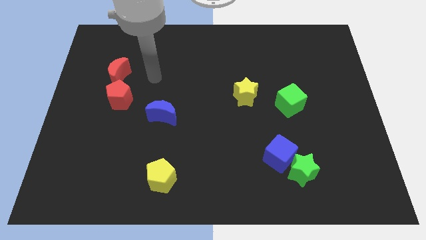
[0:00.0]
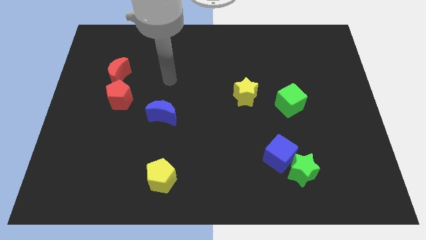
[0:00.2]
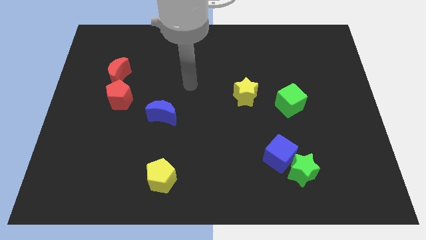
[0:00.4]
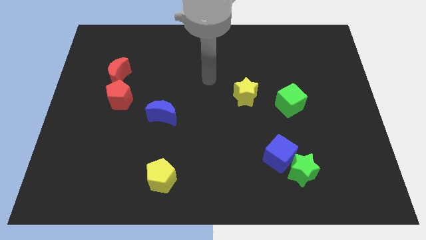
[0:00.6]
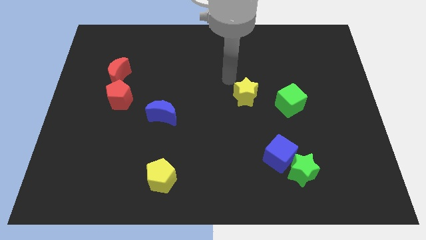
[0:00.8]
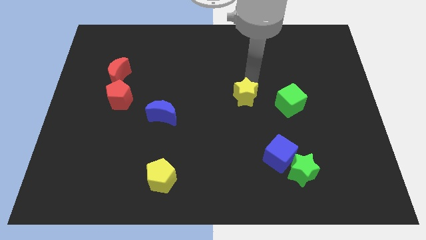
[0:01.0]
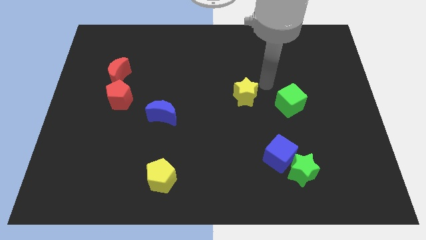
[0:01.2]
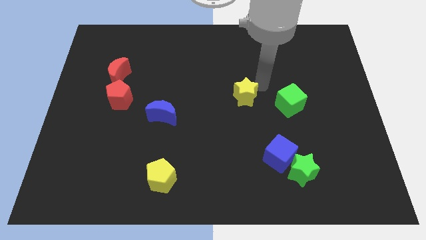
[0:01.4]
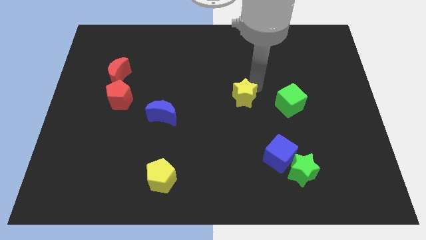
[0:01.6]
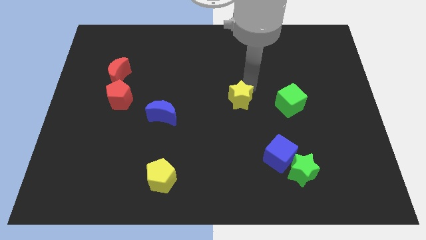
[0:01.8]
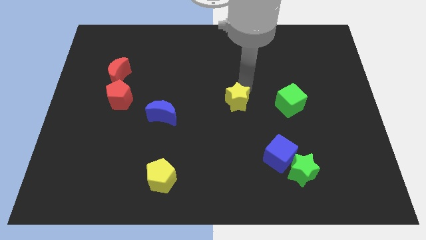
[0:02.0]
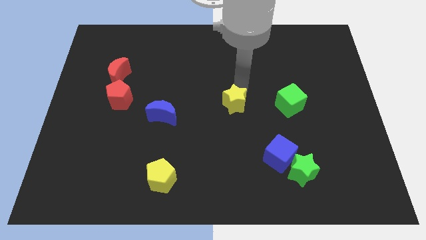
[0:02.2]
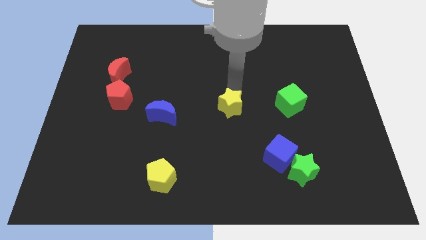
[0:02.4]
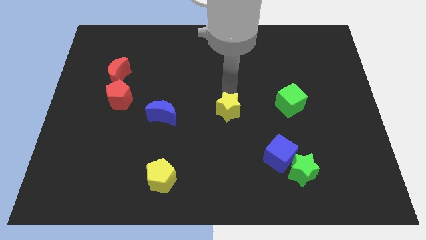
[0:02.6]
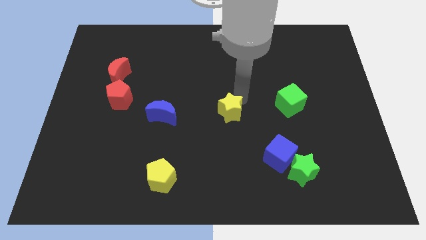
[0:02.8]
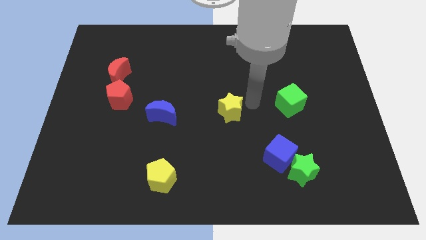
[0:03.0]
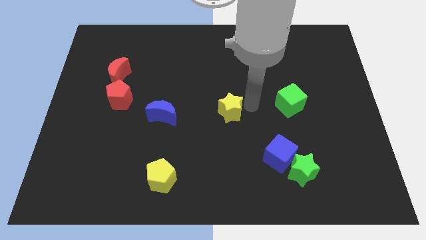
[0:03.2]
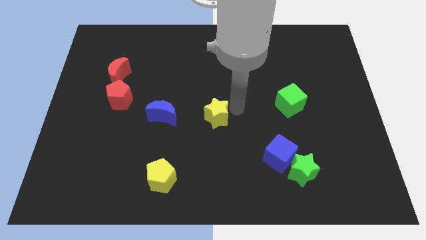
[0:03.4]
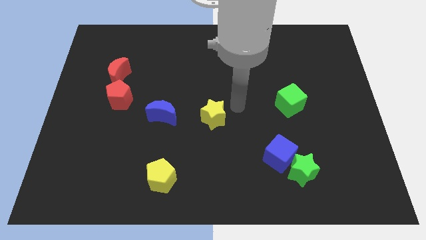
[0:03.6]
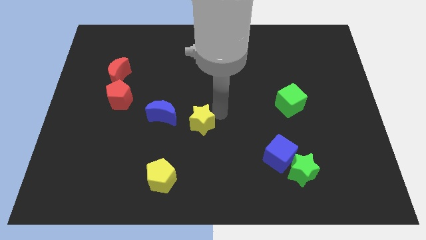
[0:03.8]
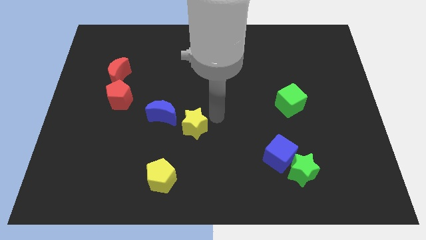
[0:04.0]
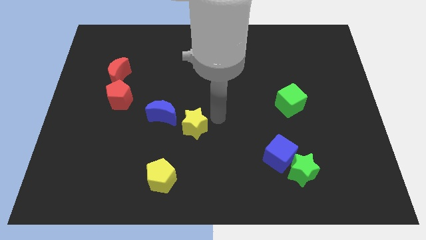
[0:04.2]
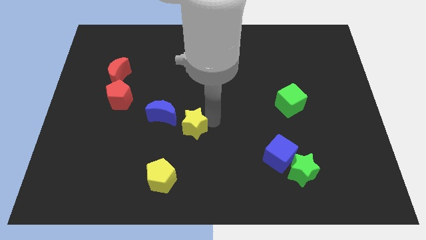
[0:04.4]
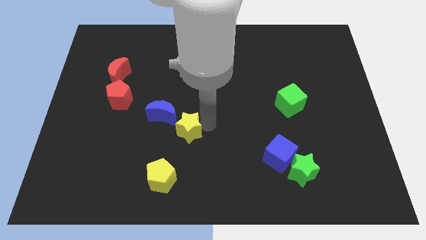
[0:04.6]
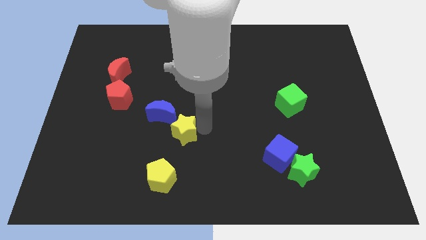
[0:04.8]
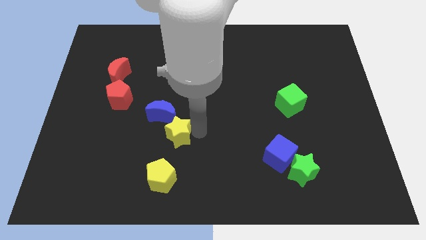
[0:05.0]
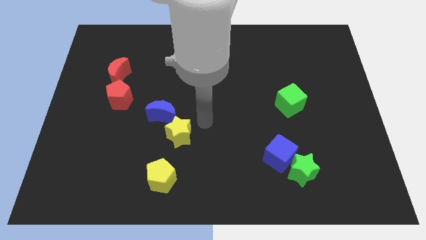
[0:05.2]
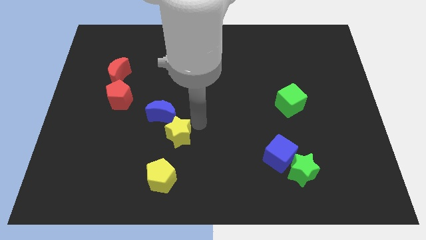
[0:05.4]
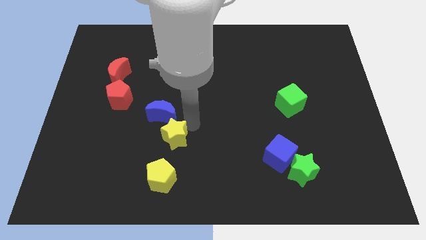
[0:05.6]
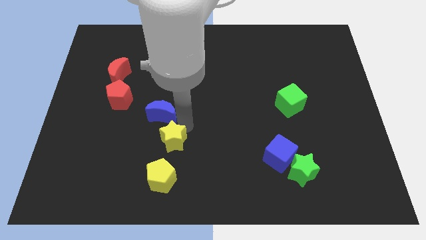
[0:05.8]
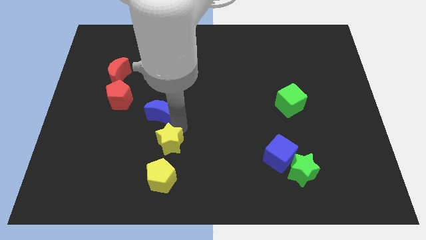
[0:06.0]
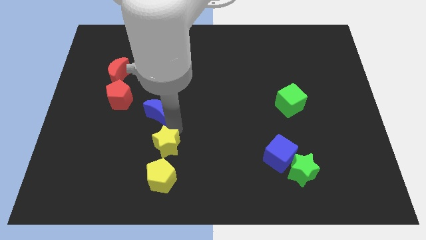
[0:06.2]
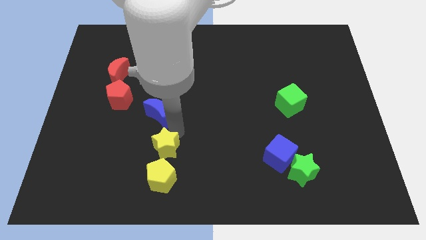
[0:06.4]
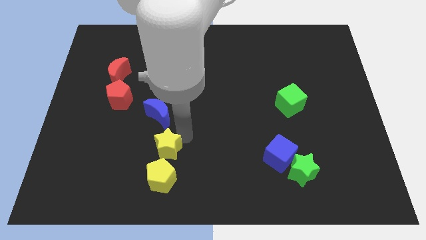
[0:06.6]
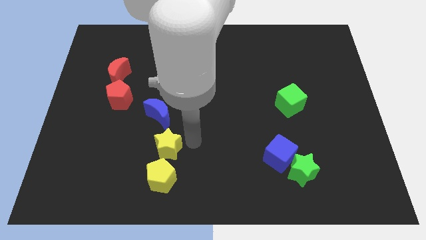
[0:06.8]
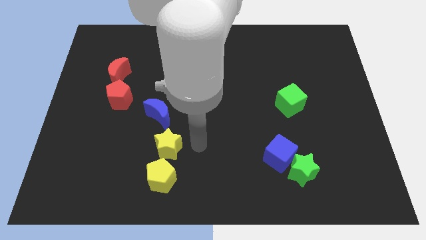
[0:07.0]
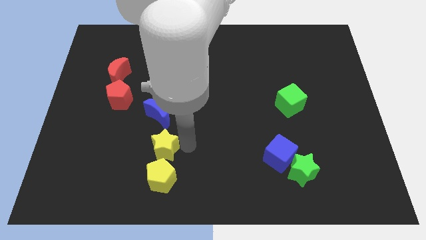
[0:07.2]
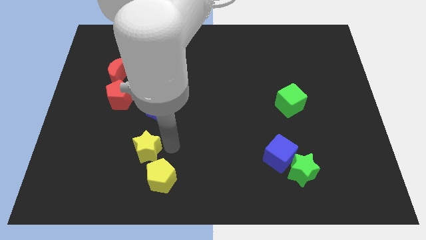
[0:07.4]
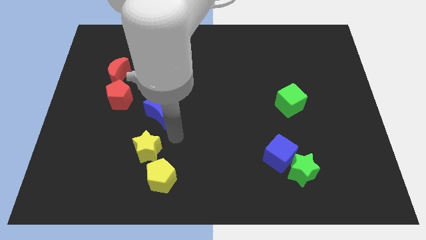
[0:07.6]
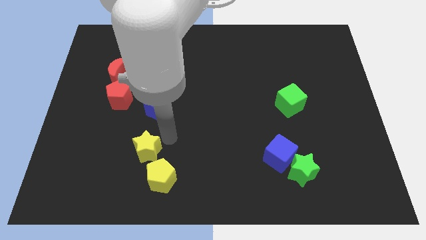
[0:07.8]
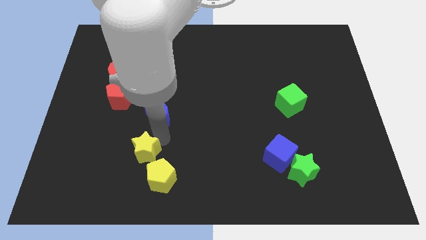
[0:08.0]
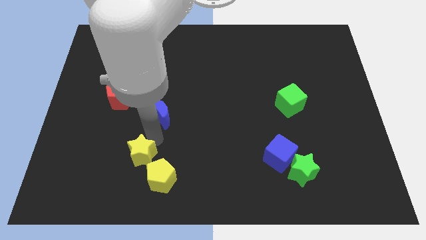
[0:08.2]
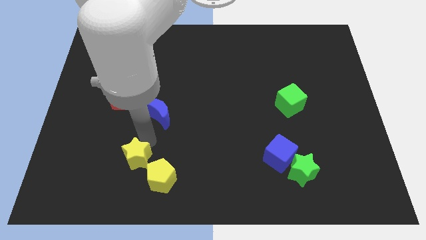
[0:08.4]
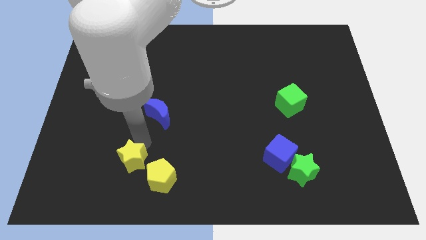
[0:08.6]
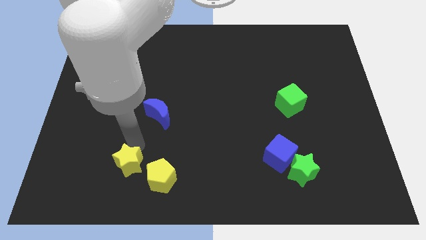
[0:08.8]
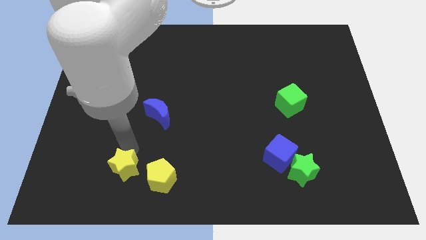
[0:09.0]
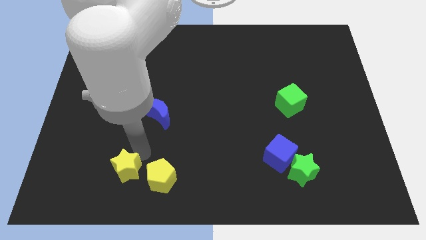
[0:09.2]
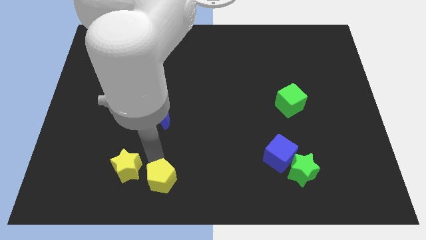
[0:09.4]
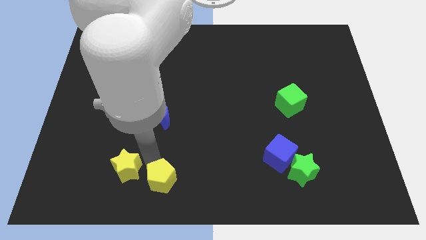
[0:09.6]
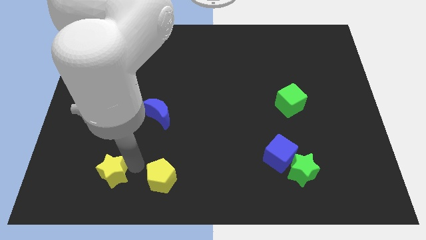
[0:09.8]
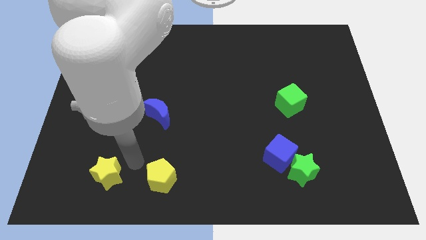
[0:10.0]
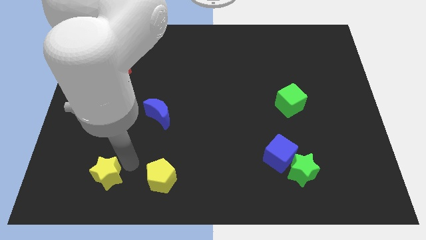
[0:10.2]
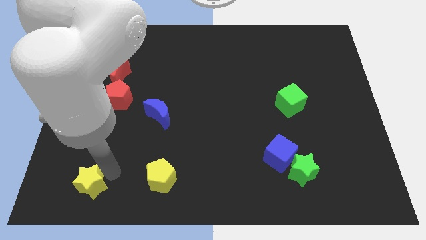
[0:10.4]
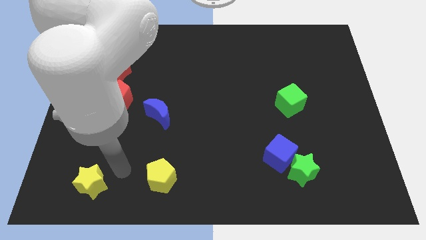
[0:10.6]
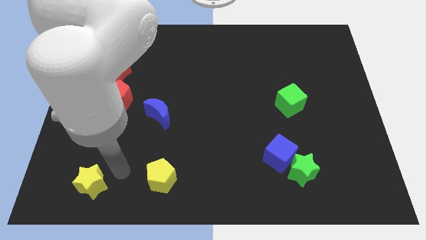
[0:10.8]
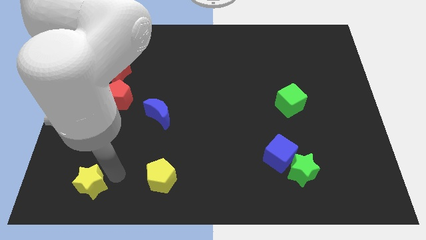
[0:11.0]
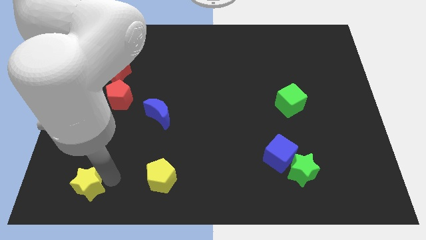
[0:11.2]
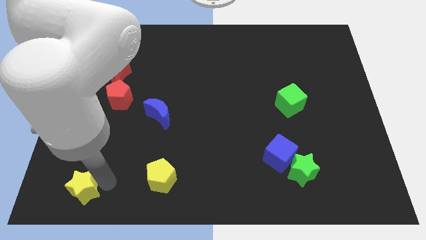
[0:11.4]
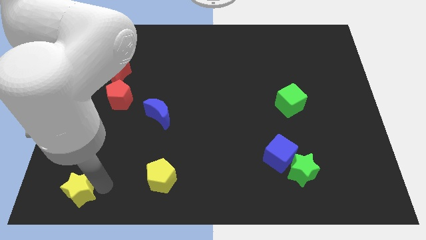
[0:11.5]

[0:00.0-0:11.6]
push the yellow star to the lower left corner
